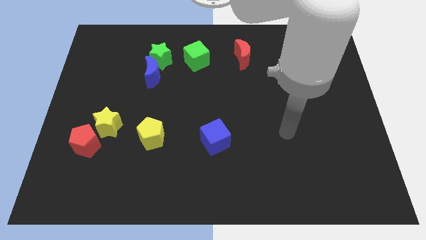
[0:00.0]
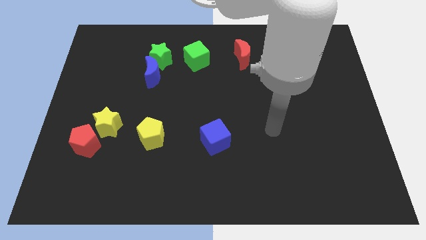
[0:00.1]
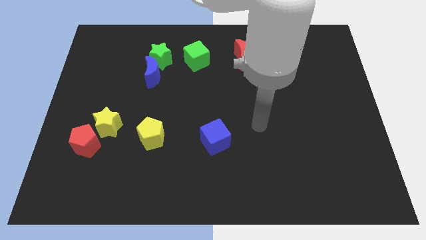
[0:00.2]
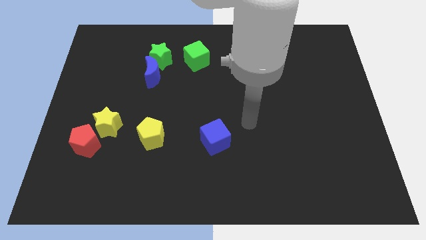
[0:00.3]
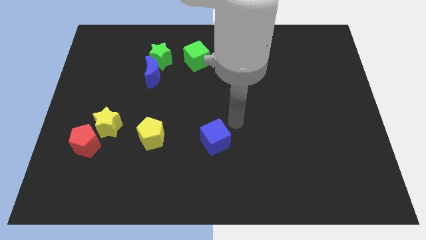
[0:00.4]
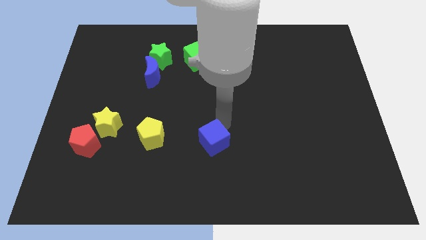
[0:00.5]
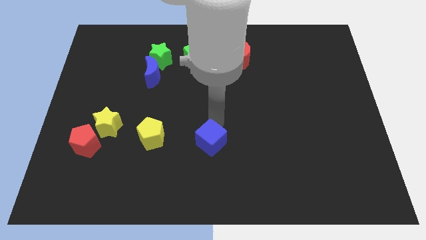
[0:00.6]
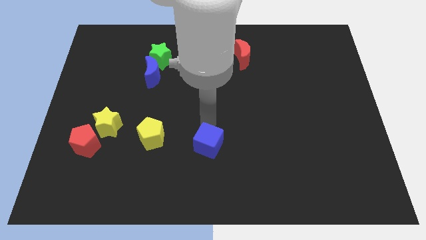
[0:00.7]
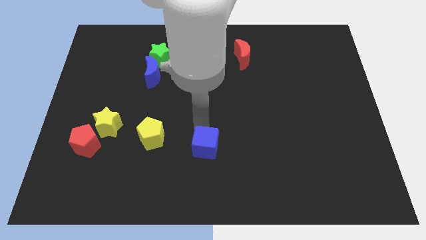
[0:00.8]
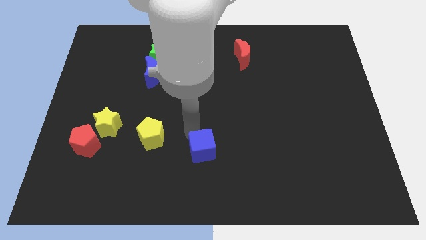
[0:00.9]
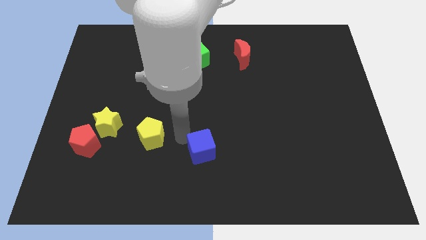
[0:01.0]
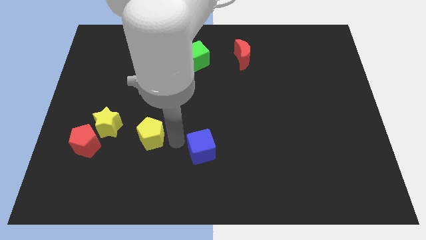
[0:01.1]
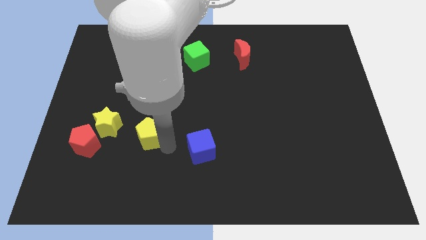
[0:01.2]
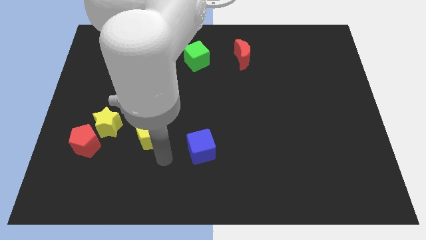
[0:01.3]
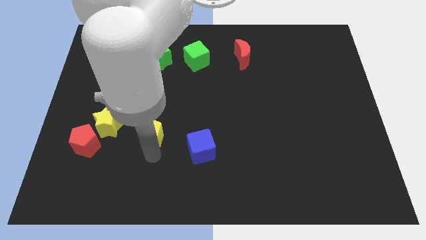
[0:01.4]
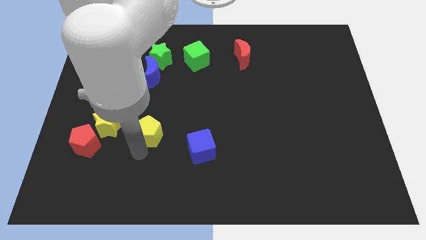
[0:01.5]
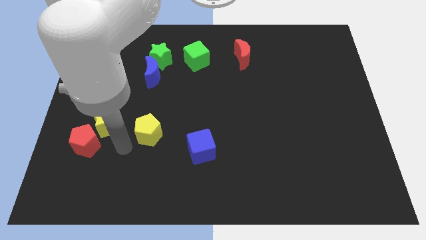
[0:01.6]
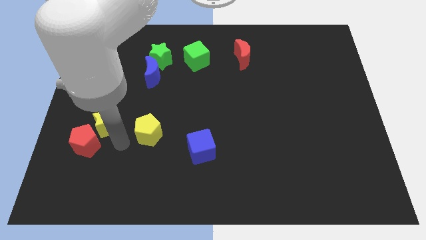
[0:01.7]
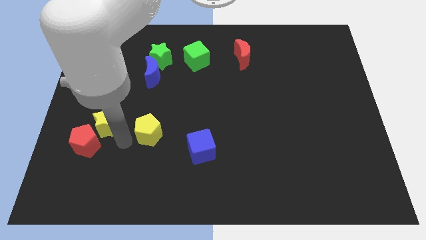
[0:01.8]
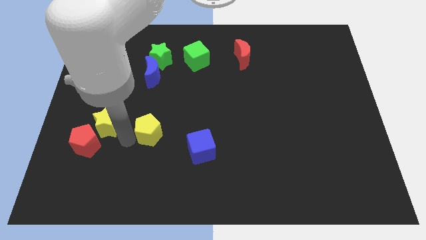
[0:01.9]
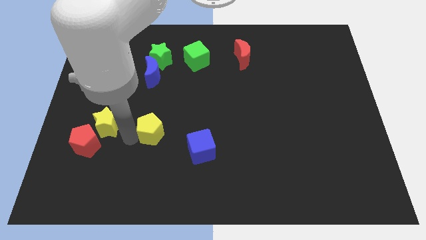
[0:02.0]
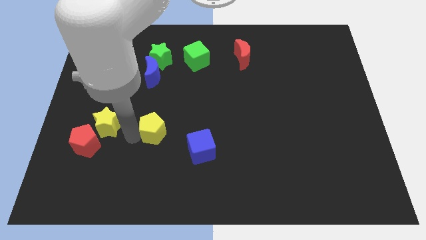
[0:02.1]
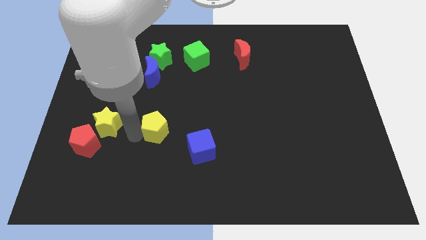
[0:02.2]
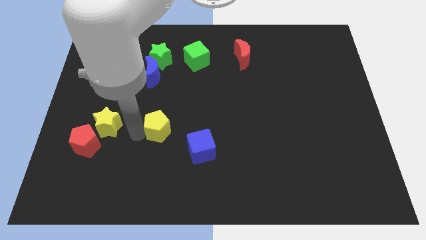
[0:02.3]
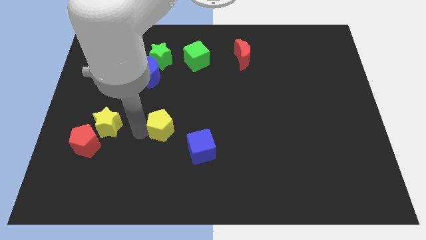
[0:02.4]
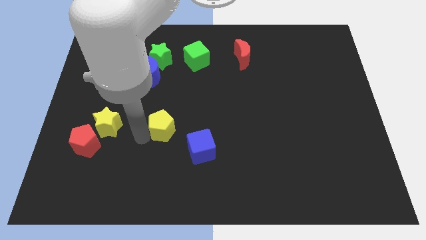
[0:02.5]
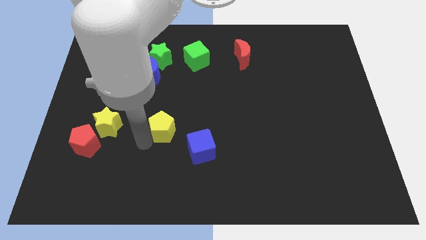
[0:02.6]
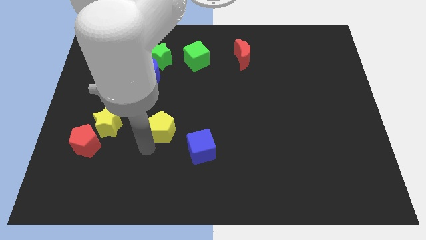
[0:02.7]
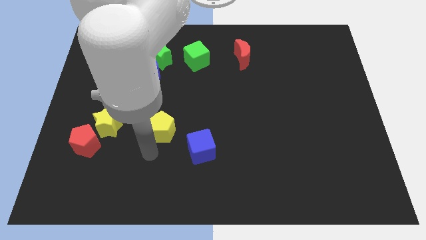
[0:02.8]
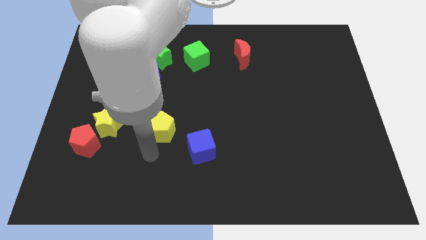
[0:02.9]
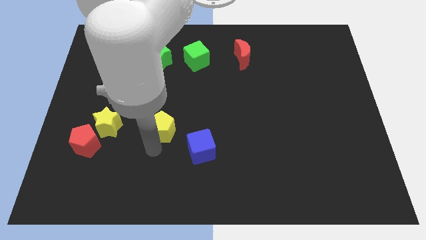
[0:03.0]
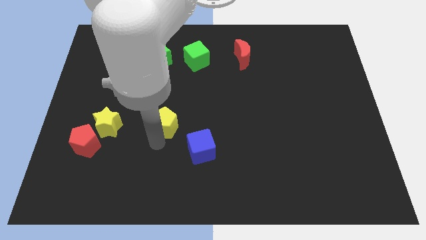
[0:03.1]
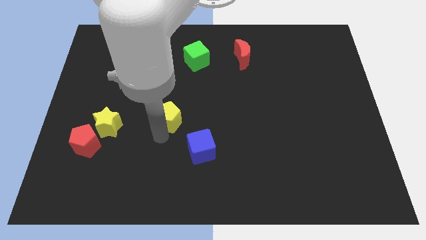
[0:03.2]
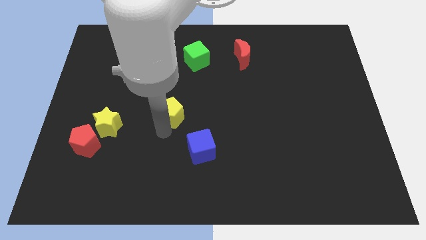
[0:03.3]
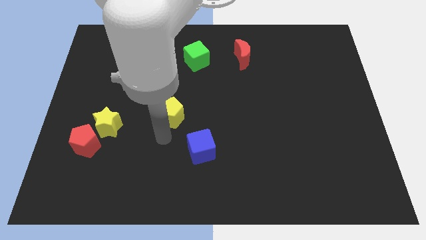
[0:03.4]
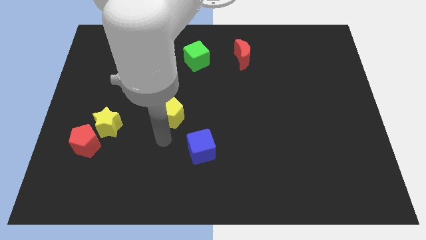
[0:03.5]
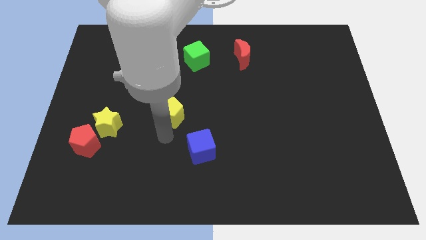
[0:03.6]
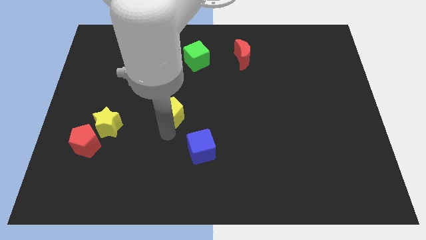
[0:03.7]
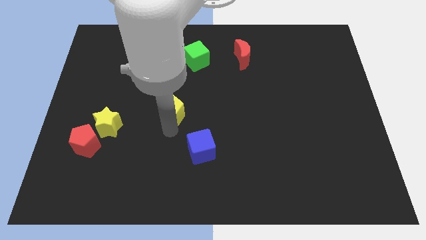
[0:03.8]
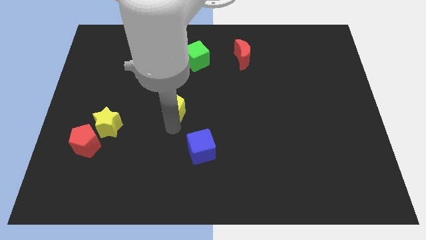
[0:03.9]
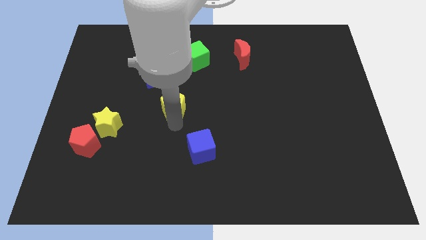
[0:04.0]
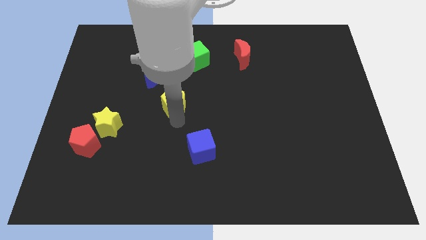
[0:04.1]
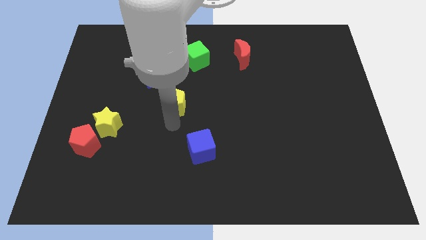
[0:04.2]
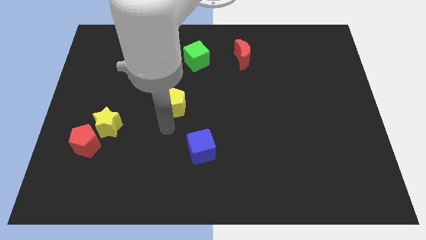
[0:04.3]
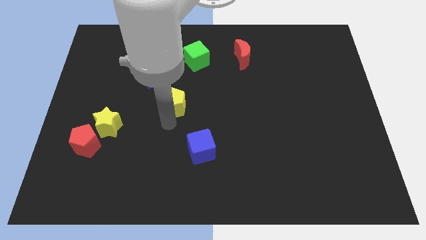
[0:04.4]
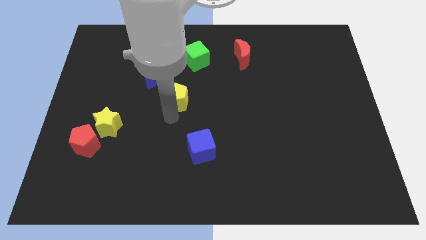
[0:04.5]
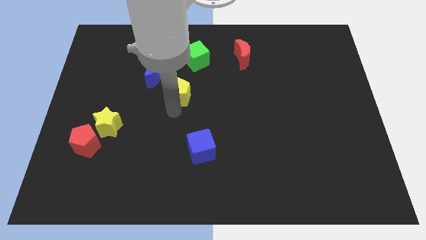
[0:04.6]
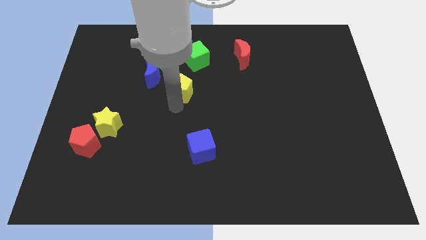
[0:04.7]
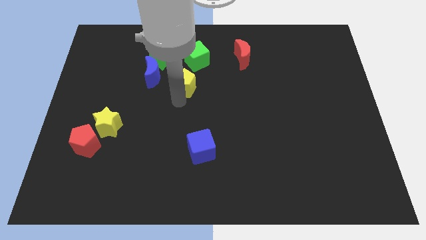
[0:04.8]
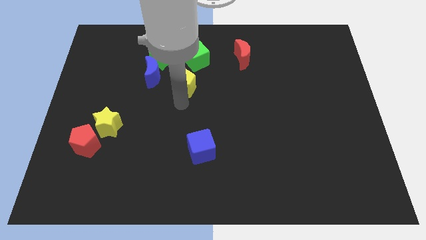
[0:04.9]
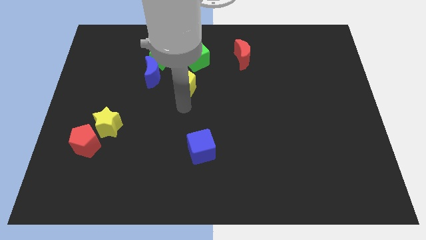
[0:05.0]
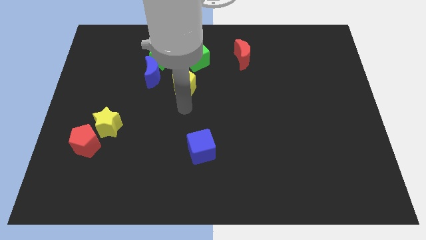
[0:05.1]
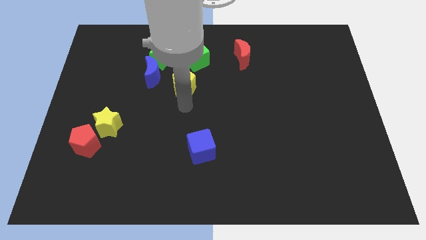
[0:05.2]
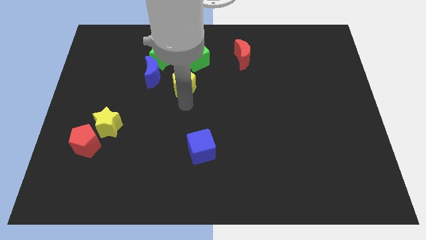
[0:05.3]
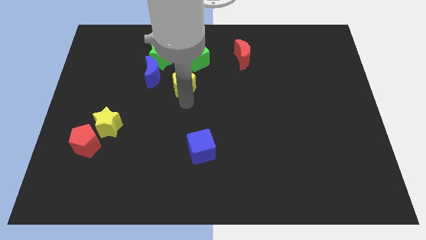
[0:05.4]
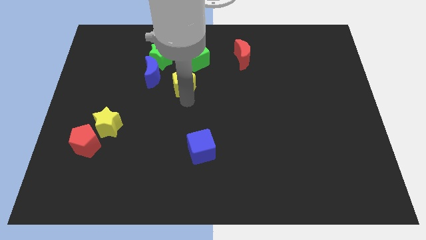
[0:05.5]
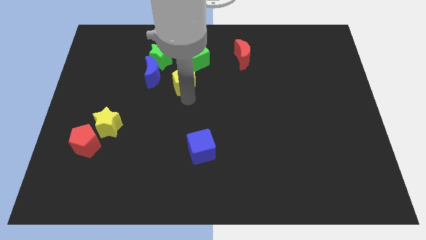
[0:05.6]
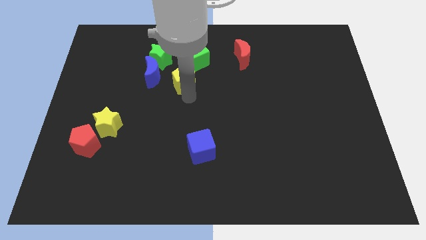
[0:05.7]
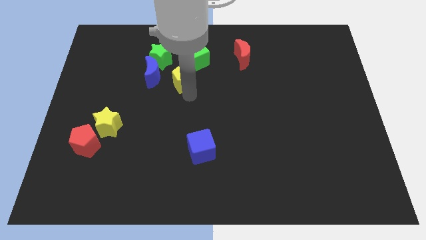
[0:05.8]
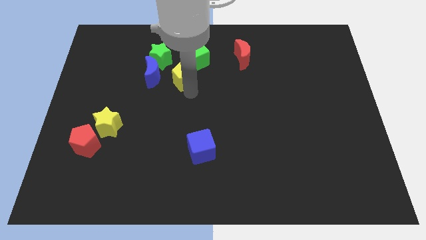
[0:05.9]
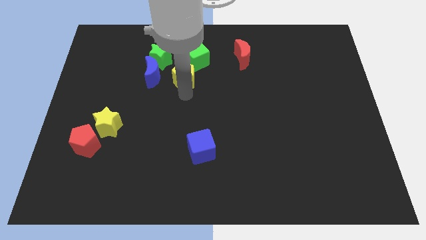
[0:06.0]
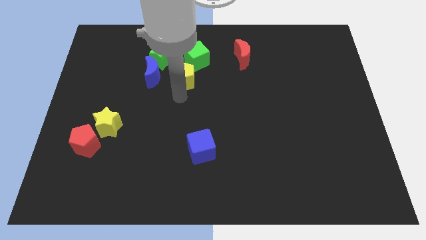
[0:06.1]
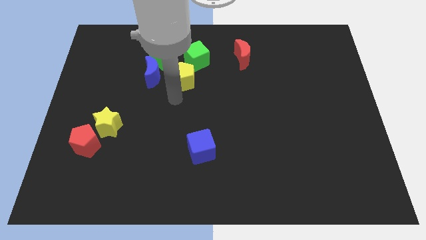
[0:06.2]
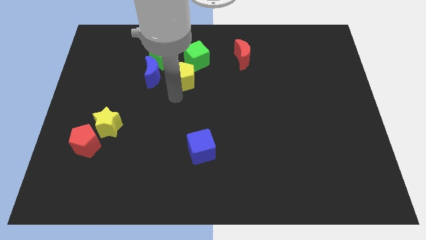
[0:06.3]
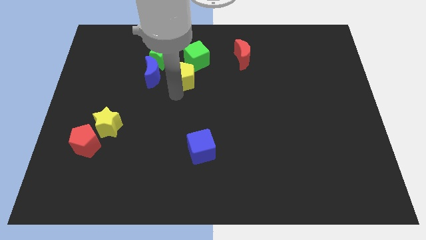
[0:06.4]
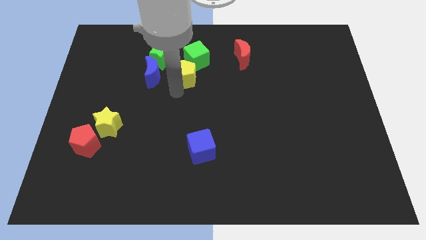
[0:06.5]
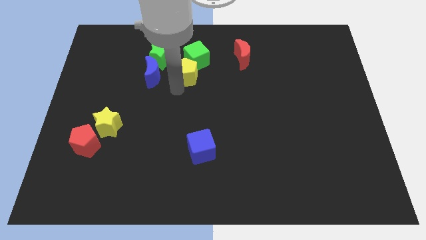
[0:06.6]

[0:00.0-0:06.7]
slide the yellow pentagon towards the green cube

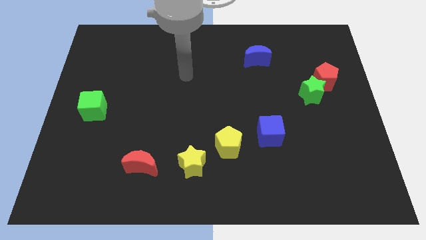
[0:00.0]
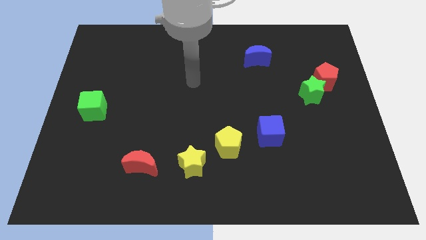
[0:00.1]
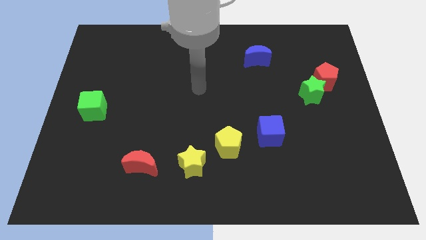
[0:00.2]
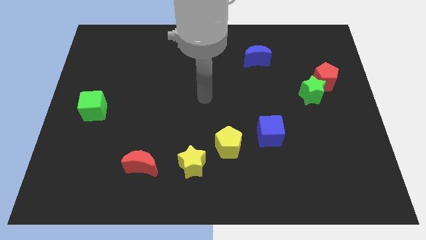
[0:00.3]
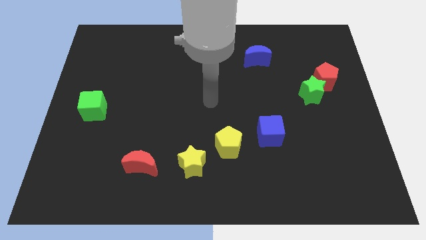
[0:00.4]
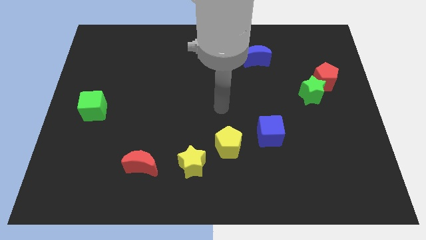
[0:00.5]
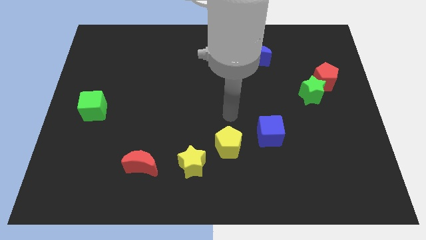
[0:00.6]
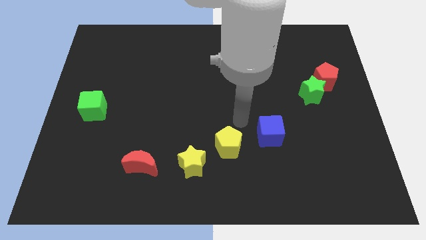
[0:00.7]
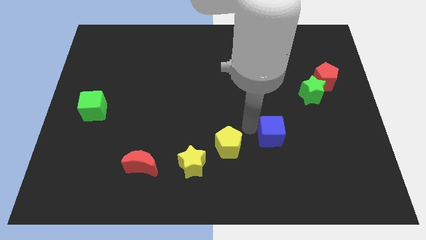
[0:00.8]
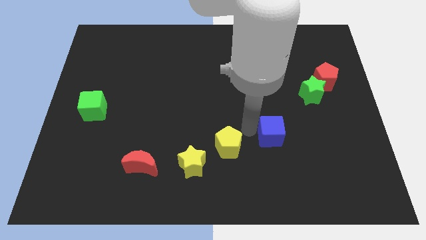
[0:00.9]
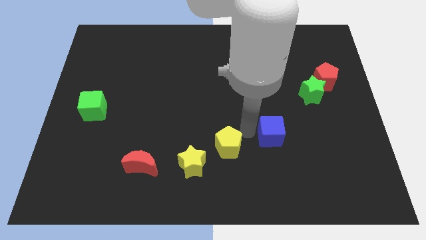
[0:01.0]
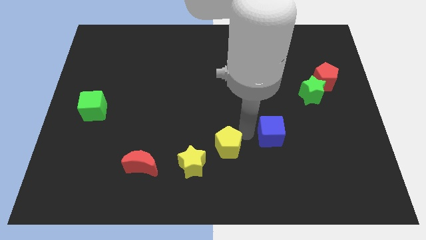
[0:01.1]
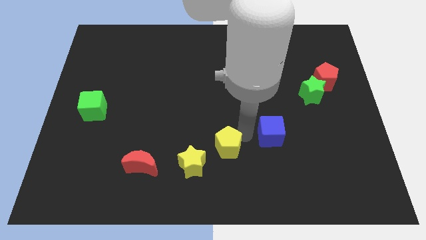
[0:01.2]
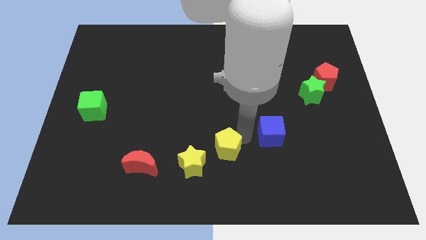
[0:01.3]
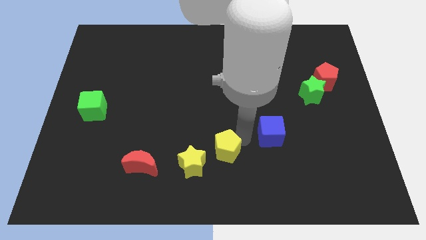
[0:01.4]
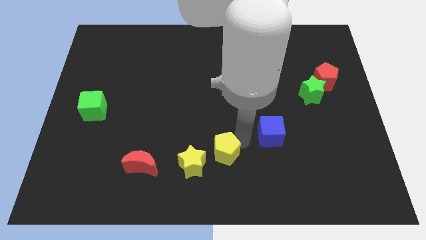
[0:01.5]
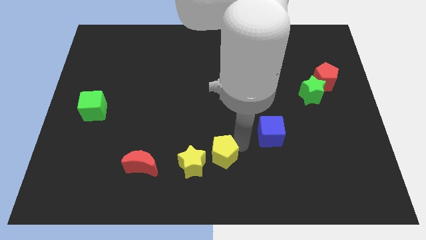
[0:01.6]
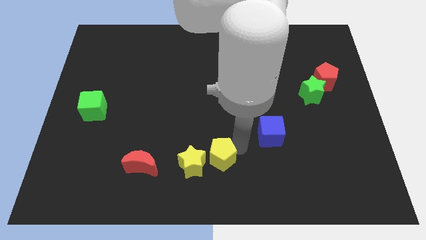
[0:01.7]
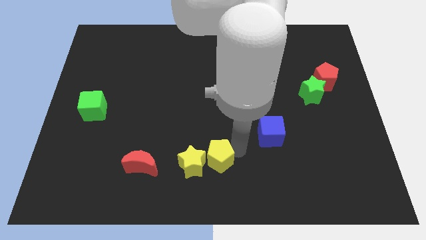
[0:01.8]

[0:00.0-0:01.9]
slide the yellow pentagon towards the yellow star
